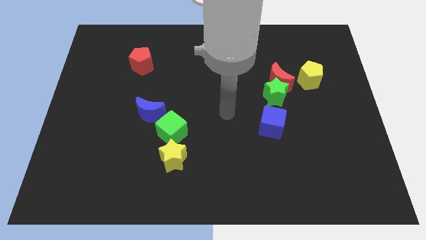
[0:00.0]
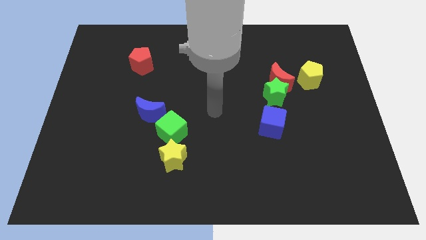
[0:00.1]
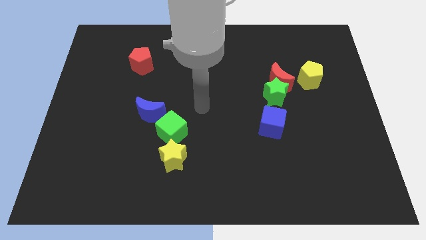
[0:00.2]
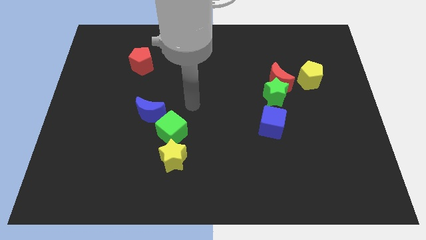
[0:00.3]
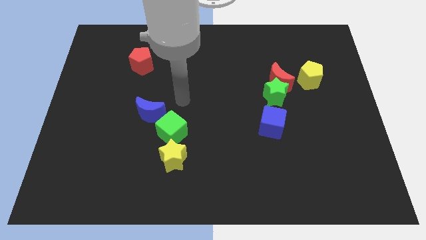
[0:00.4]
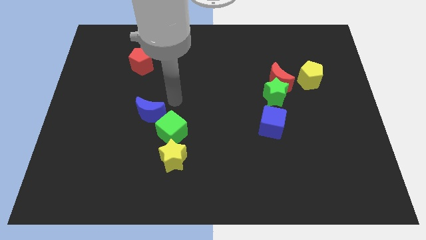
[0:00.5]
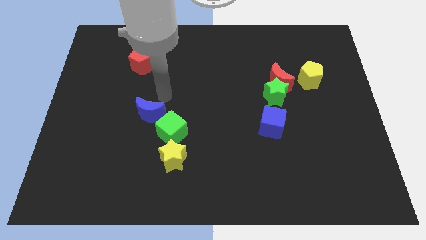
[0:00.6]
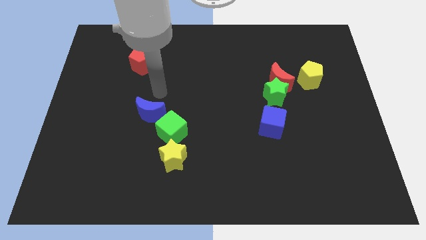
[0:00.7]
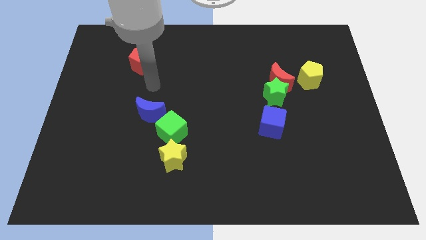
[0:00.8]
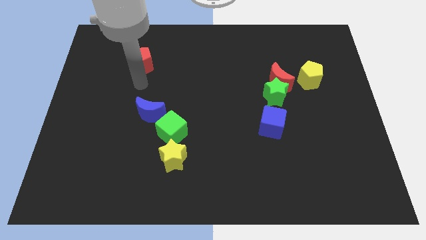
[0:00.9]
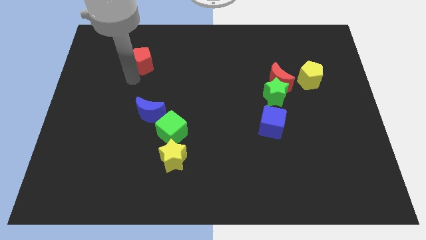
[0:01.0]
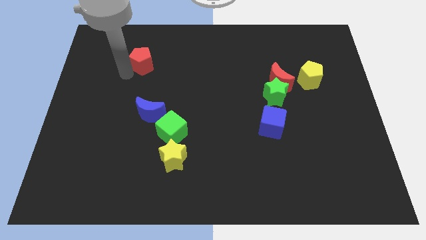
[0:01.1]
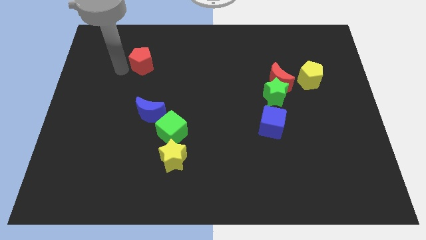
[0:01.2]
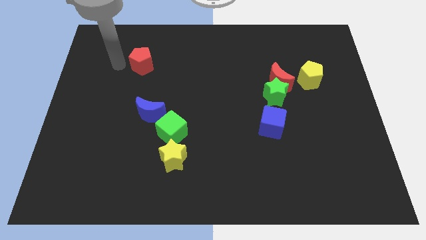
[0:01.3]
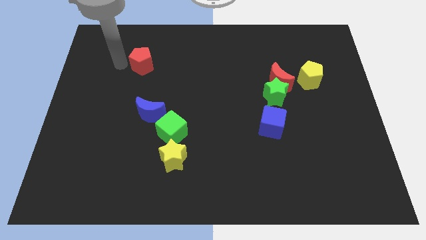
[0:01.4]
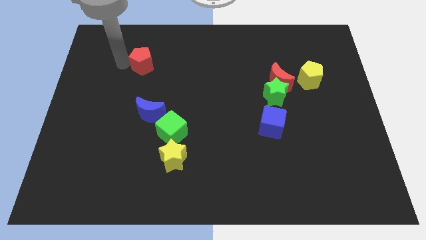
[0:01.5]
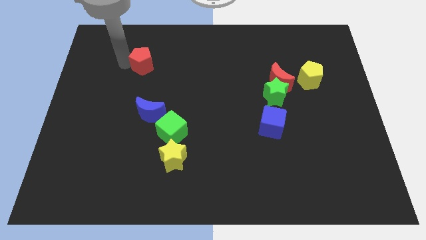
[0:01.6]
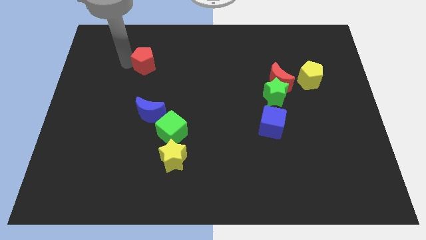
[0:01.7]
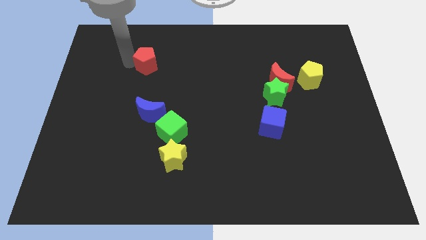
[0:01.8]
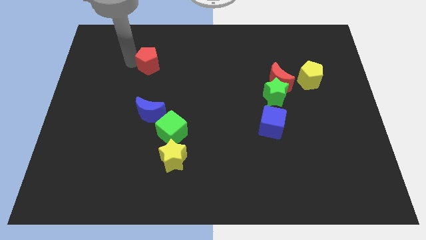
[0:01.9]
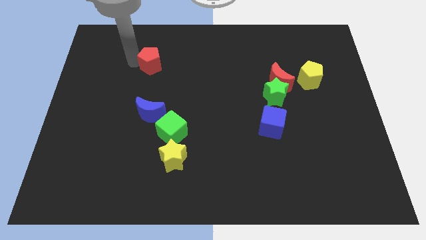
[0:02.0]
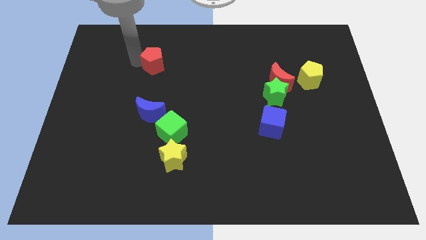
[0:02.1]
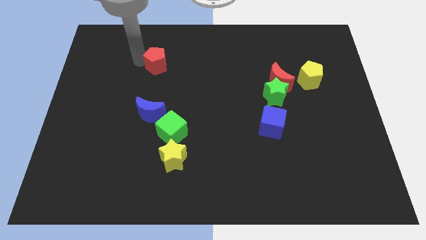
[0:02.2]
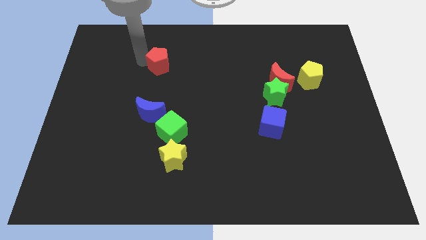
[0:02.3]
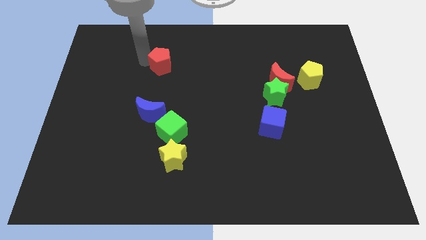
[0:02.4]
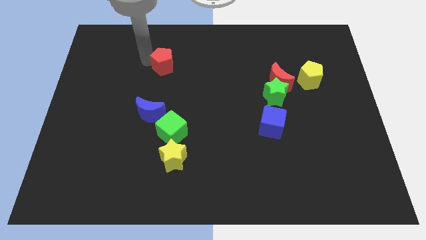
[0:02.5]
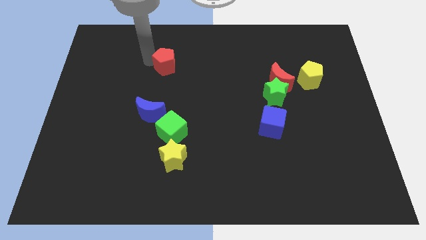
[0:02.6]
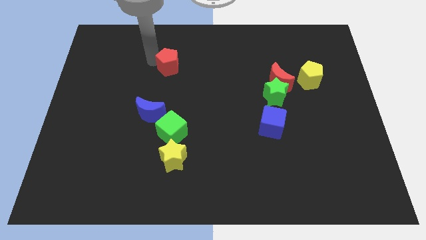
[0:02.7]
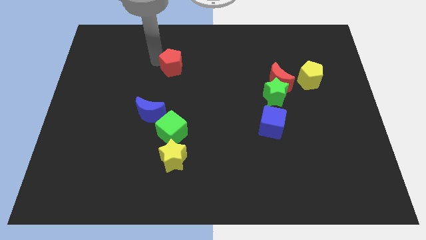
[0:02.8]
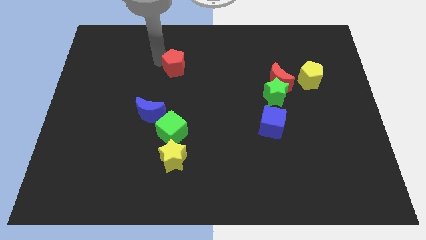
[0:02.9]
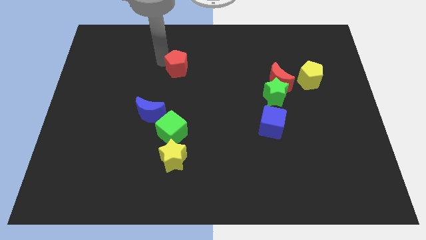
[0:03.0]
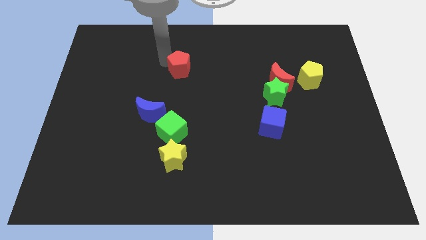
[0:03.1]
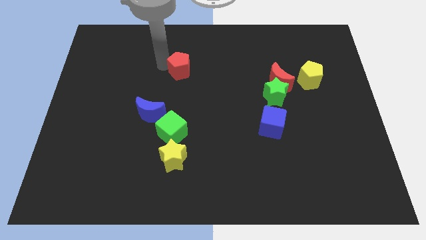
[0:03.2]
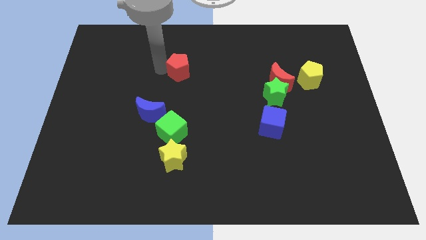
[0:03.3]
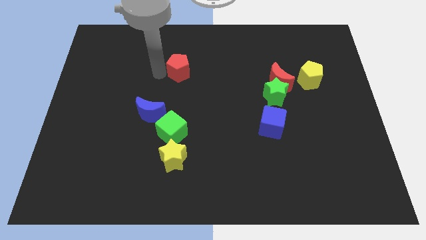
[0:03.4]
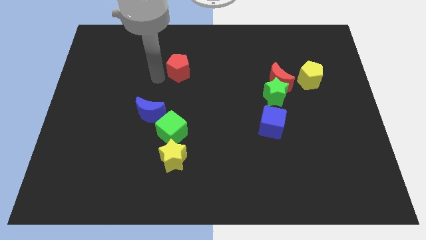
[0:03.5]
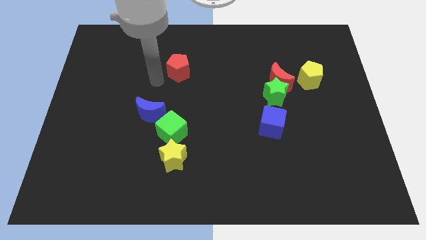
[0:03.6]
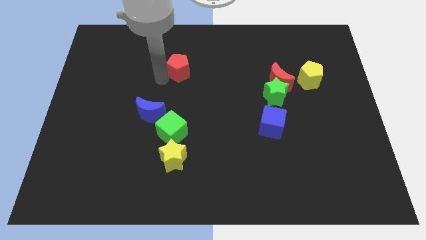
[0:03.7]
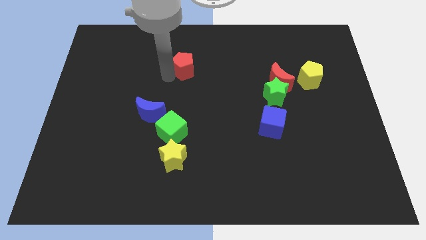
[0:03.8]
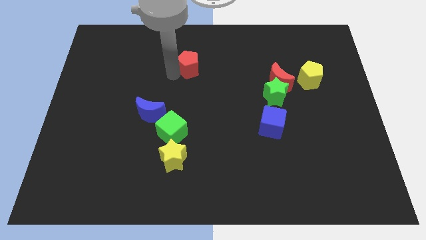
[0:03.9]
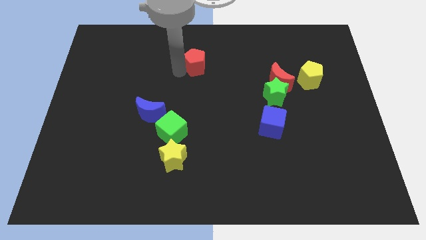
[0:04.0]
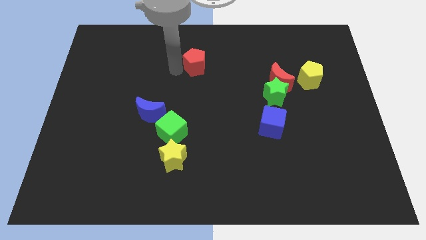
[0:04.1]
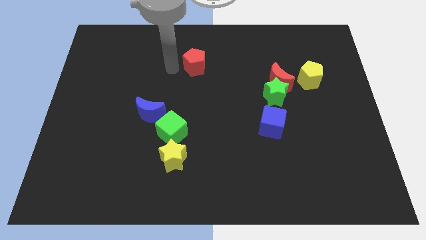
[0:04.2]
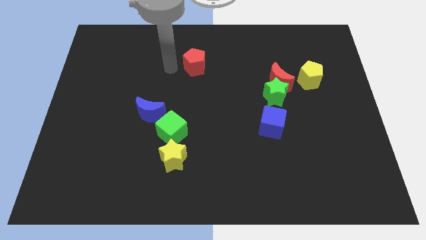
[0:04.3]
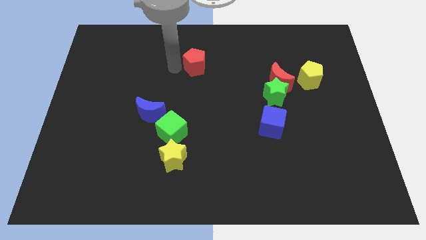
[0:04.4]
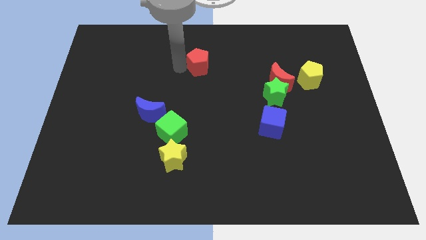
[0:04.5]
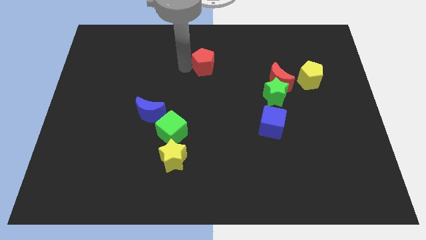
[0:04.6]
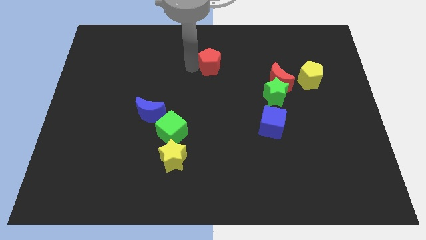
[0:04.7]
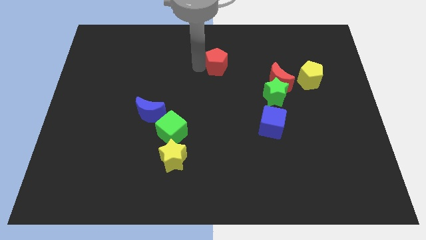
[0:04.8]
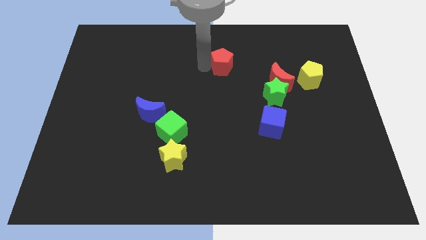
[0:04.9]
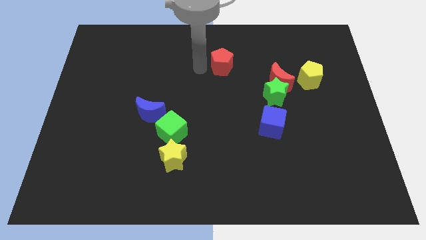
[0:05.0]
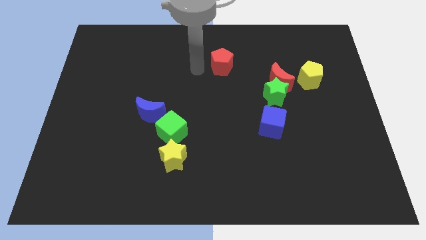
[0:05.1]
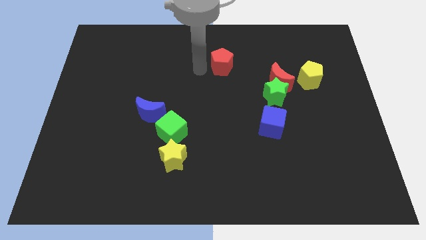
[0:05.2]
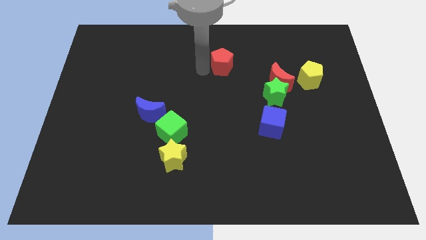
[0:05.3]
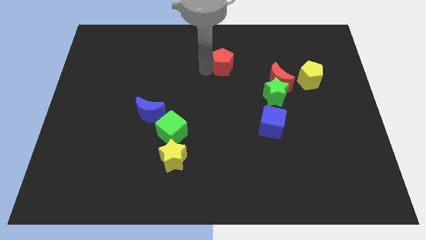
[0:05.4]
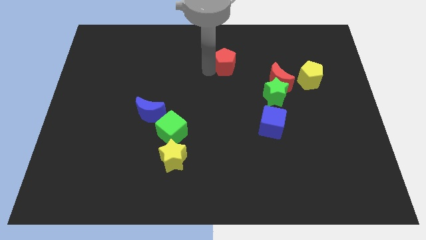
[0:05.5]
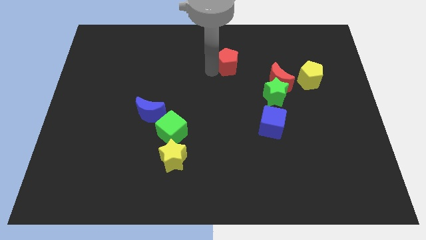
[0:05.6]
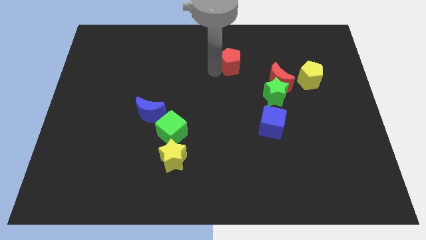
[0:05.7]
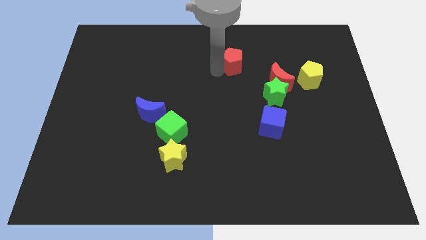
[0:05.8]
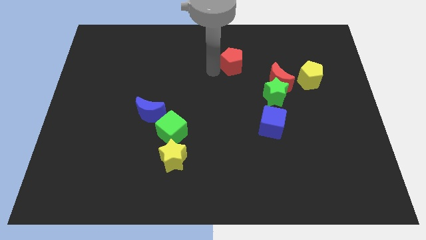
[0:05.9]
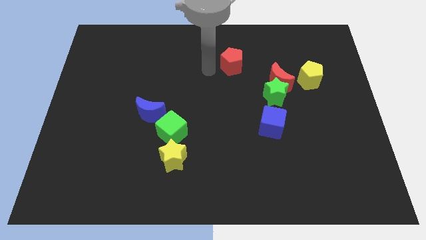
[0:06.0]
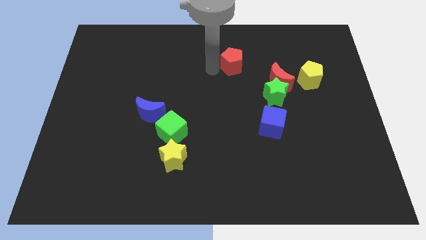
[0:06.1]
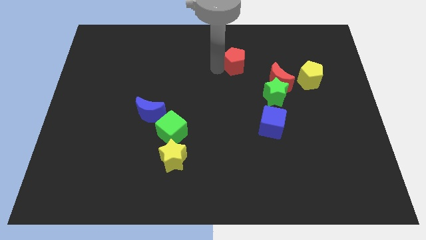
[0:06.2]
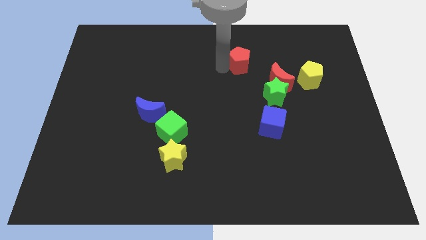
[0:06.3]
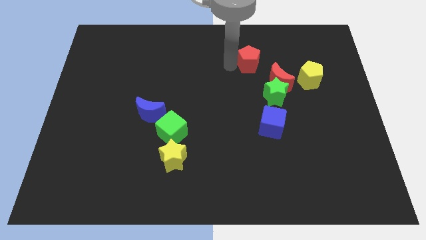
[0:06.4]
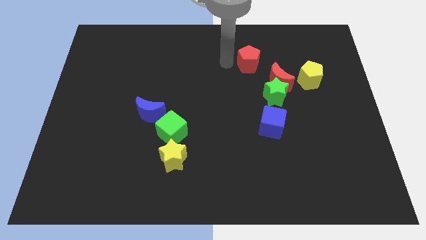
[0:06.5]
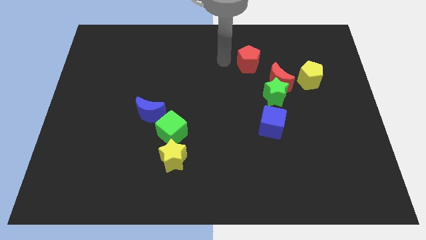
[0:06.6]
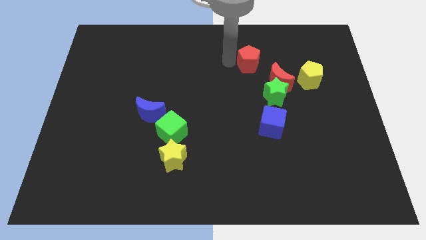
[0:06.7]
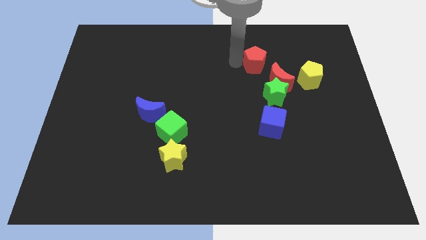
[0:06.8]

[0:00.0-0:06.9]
push the red pentagon to the top side of the green star

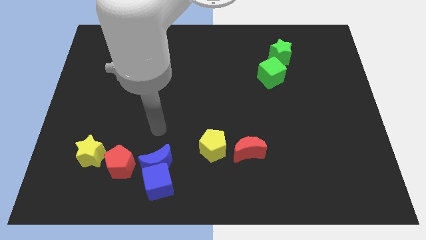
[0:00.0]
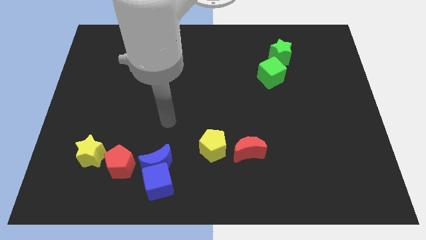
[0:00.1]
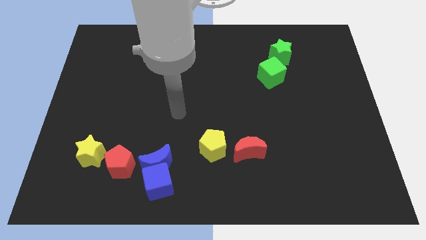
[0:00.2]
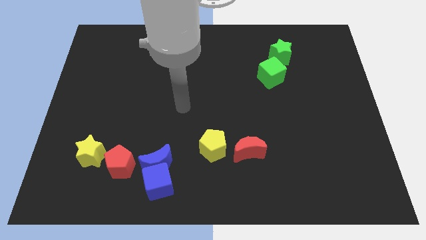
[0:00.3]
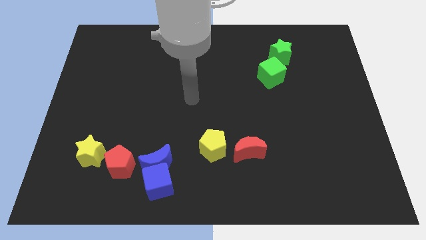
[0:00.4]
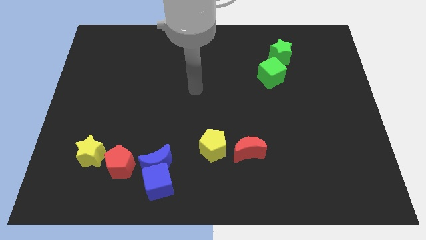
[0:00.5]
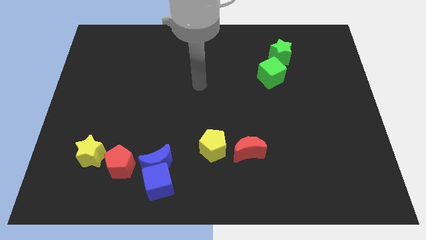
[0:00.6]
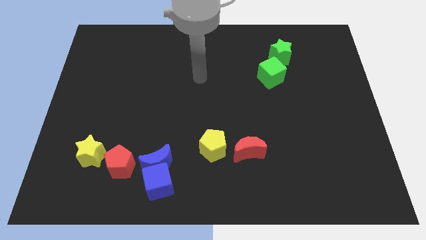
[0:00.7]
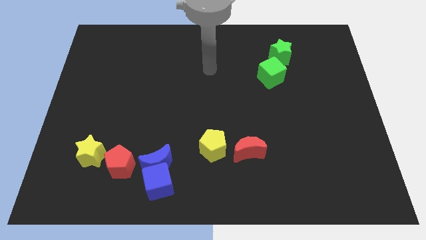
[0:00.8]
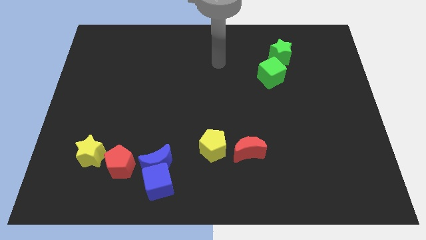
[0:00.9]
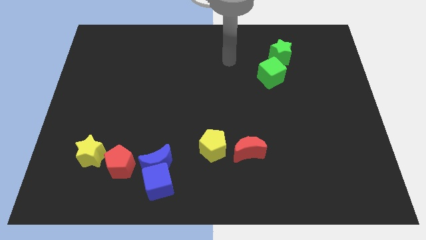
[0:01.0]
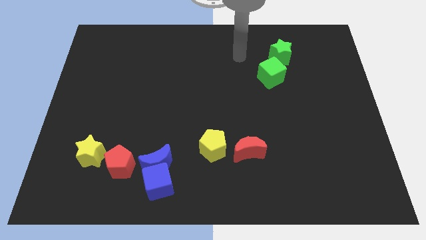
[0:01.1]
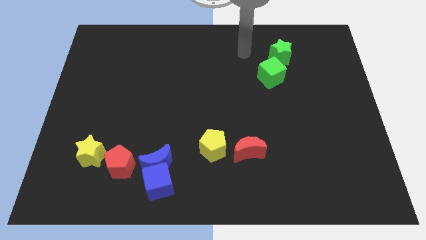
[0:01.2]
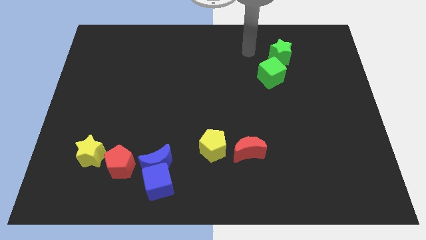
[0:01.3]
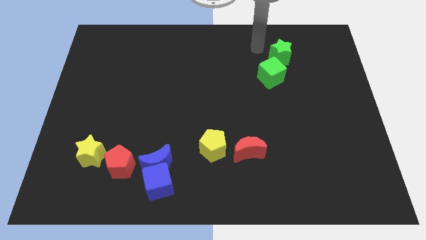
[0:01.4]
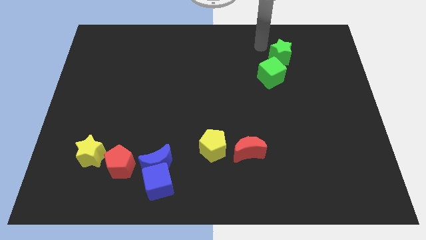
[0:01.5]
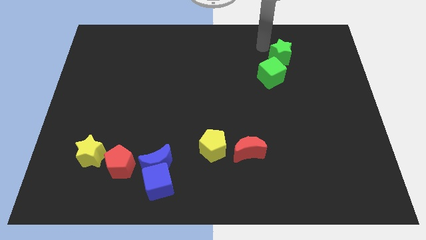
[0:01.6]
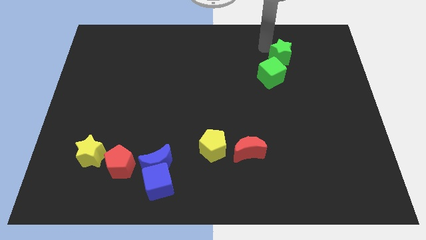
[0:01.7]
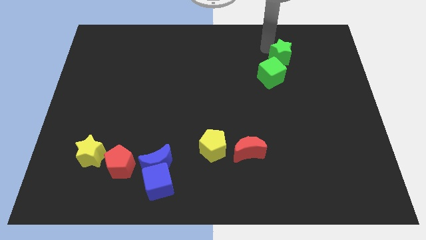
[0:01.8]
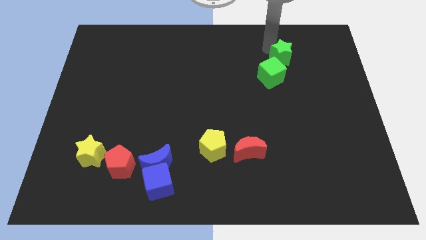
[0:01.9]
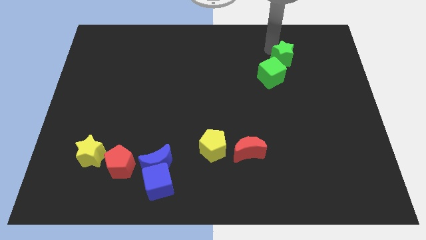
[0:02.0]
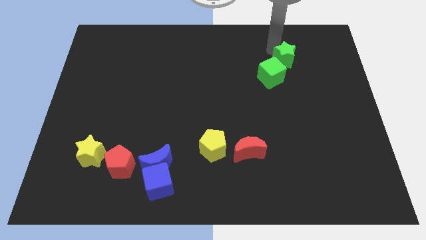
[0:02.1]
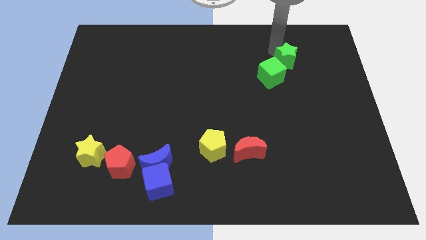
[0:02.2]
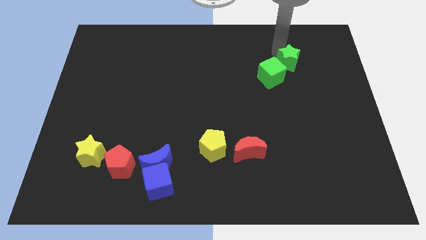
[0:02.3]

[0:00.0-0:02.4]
put the green star just right of the green cube
